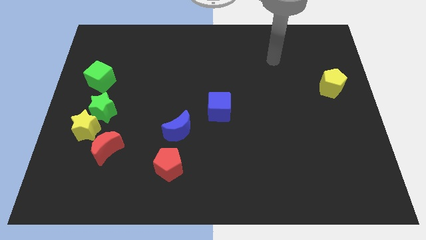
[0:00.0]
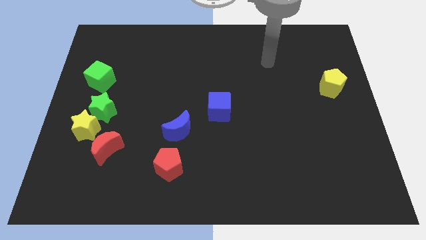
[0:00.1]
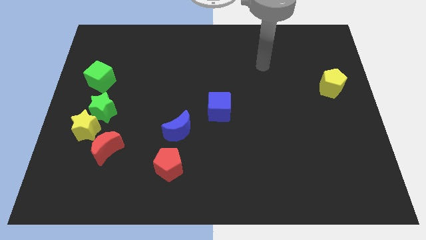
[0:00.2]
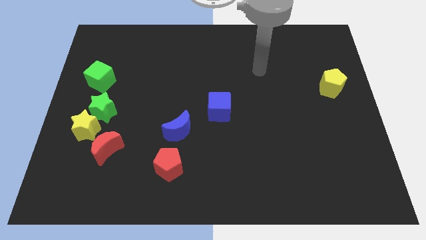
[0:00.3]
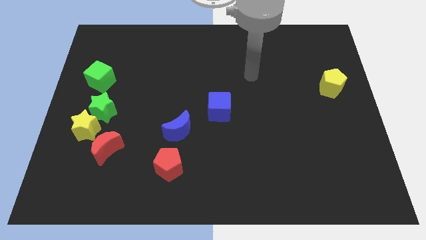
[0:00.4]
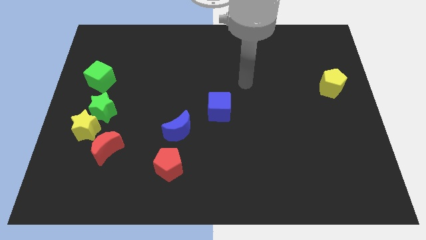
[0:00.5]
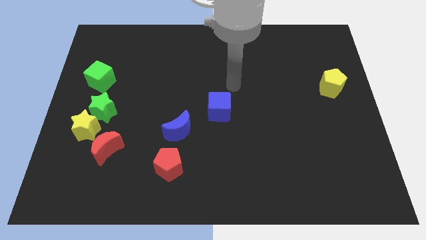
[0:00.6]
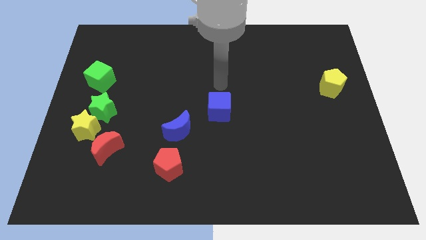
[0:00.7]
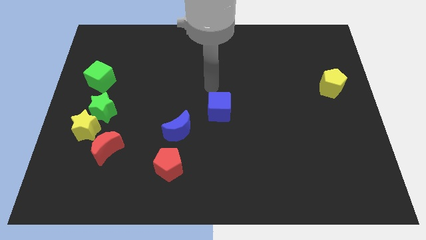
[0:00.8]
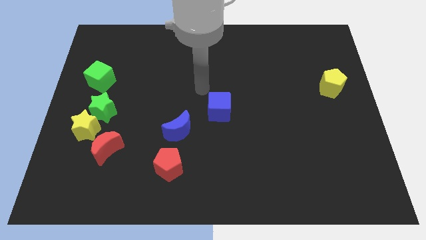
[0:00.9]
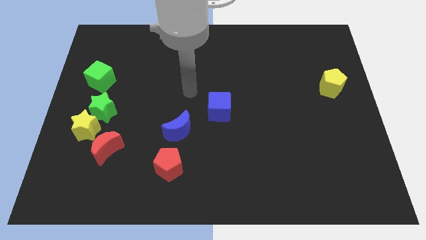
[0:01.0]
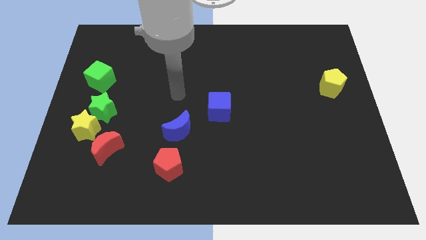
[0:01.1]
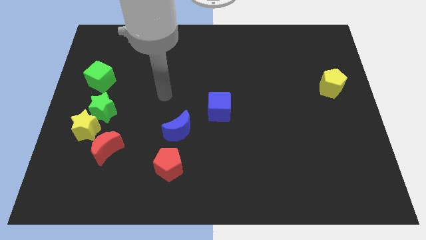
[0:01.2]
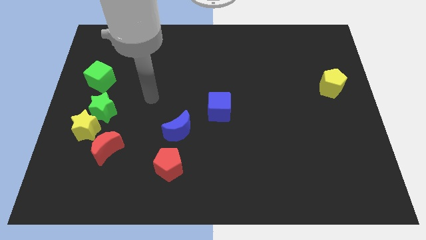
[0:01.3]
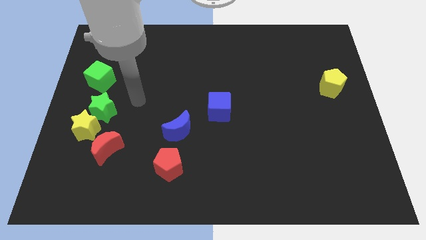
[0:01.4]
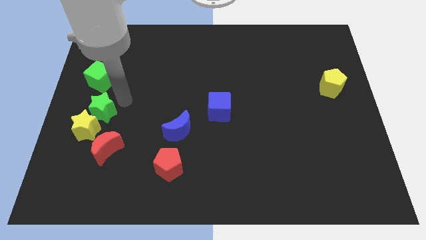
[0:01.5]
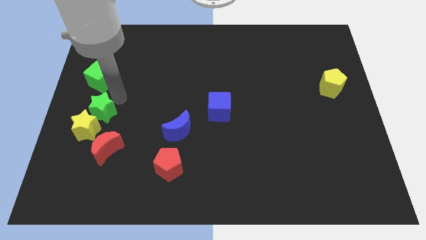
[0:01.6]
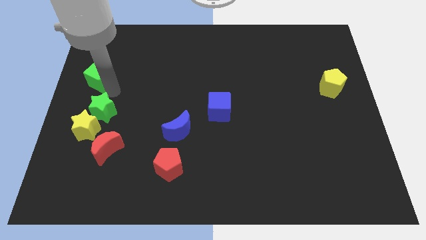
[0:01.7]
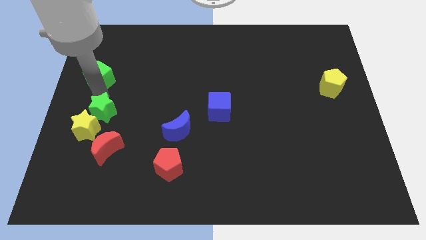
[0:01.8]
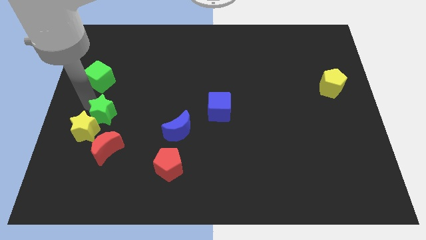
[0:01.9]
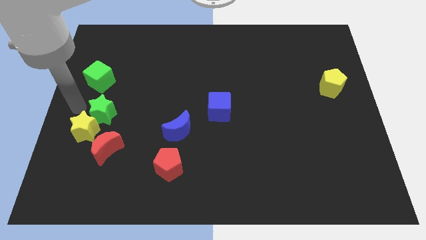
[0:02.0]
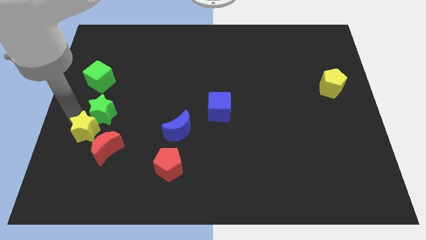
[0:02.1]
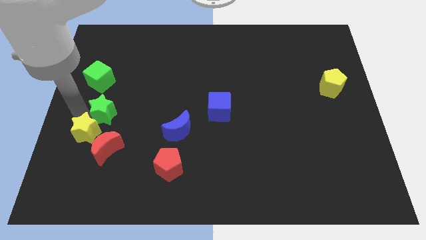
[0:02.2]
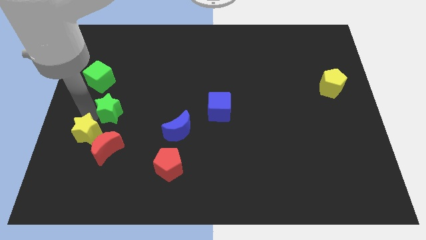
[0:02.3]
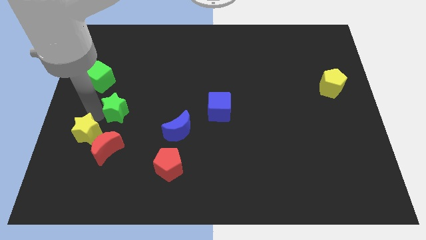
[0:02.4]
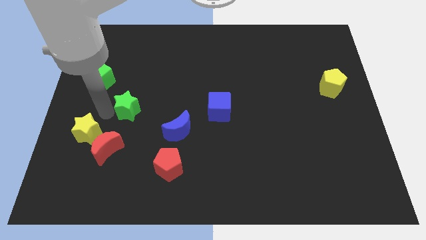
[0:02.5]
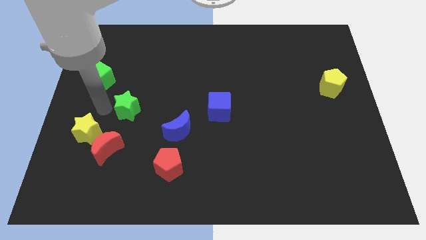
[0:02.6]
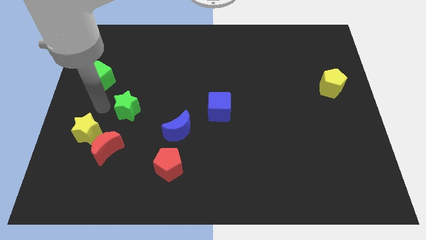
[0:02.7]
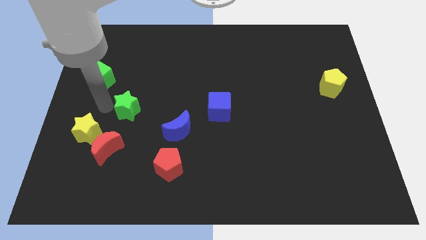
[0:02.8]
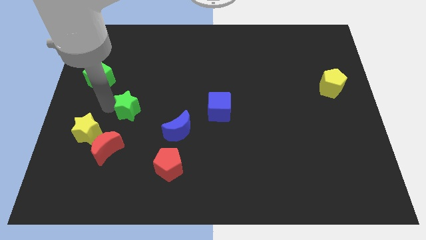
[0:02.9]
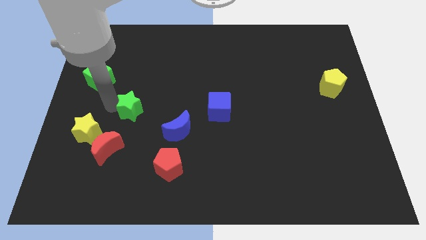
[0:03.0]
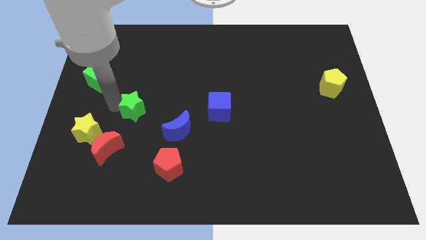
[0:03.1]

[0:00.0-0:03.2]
move the green star a little to the right

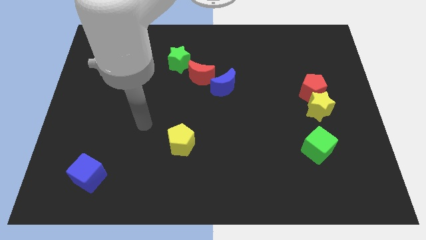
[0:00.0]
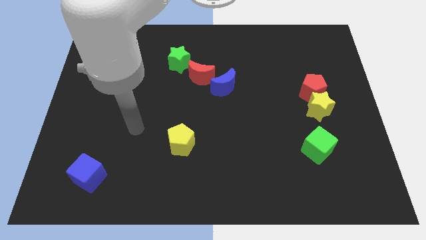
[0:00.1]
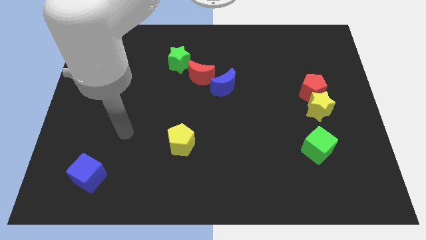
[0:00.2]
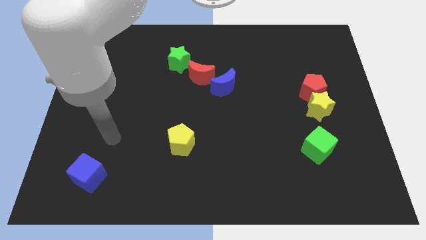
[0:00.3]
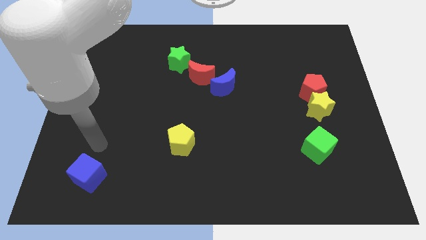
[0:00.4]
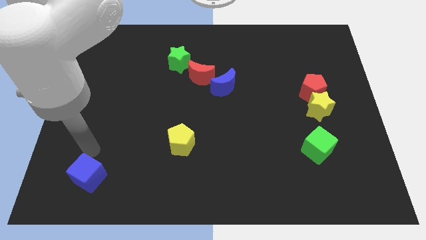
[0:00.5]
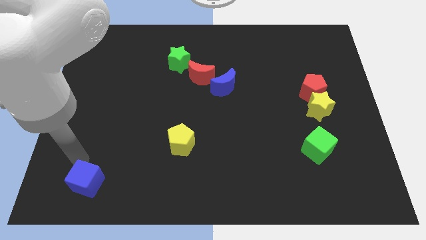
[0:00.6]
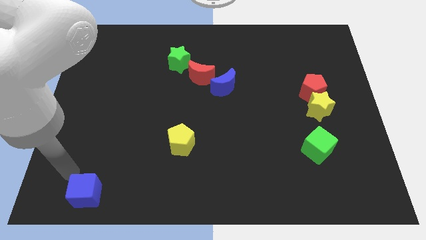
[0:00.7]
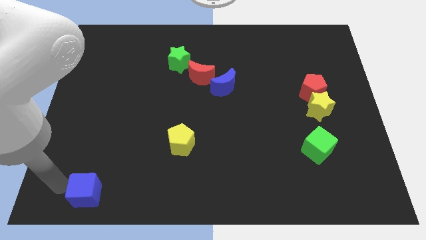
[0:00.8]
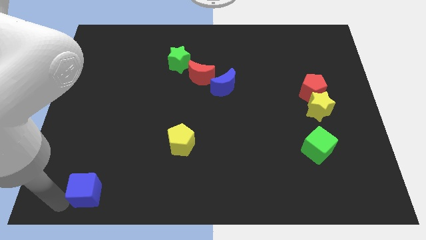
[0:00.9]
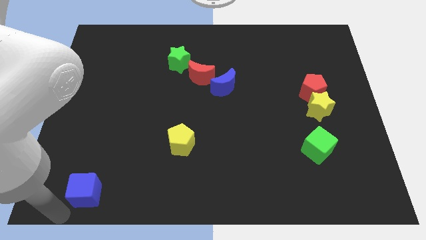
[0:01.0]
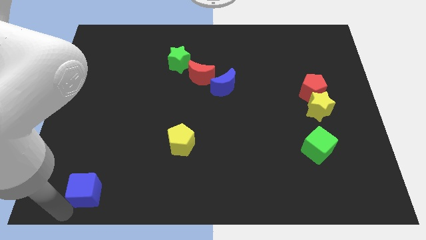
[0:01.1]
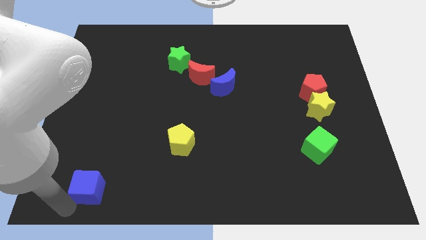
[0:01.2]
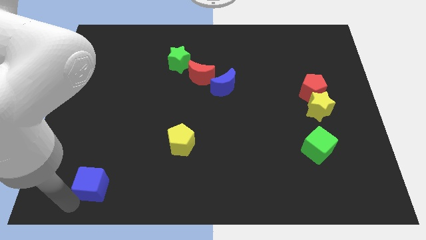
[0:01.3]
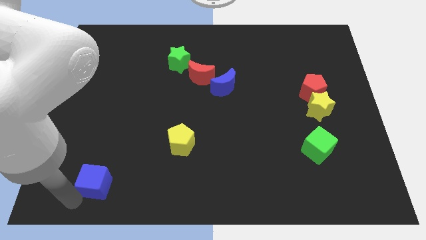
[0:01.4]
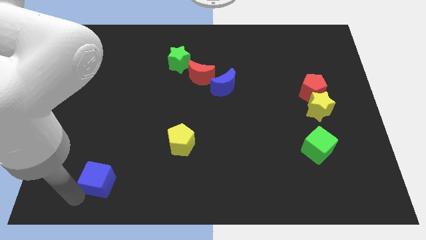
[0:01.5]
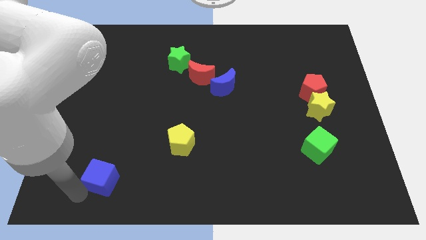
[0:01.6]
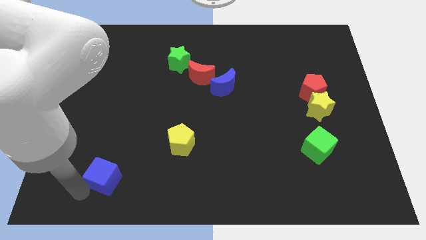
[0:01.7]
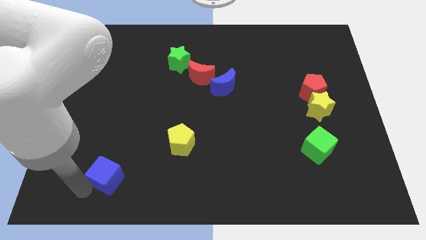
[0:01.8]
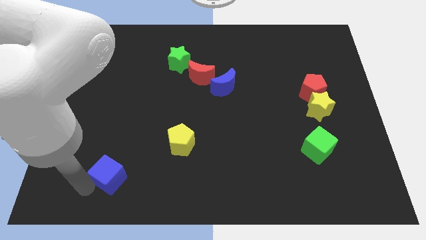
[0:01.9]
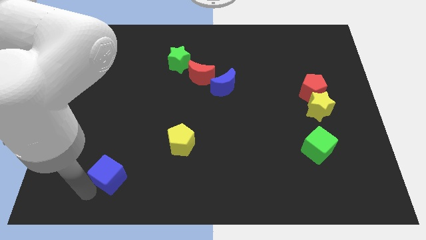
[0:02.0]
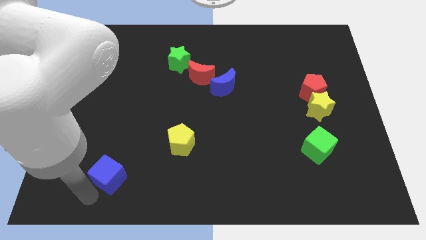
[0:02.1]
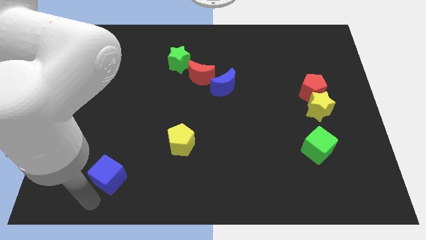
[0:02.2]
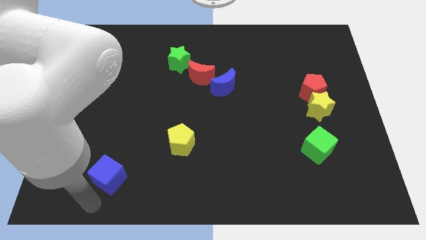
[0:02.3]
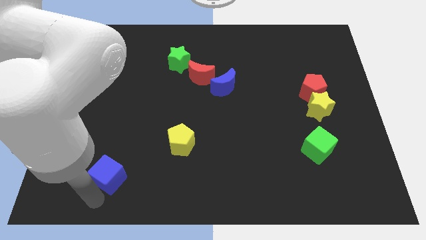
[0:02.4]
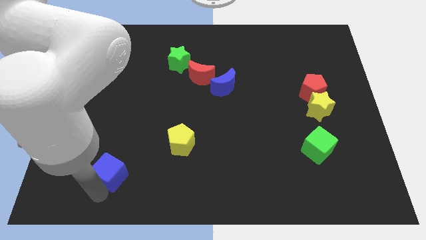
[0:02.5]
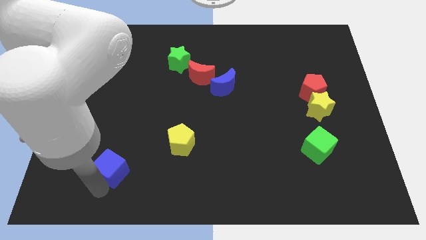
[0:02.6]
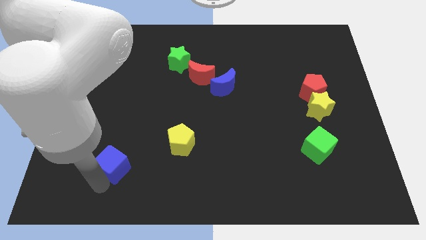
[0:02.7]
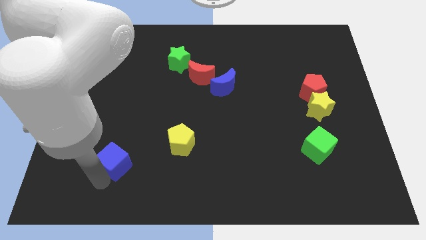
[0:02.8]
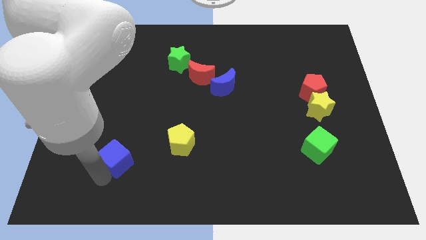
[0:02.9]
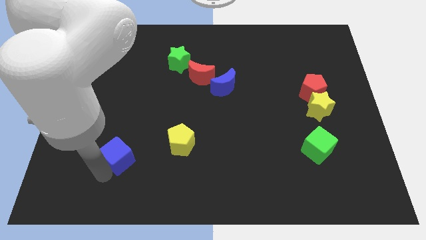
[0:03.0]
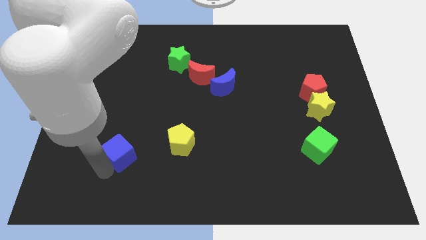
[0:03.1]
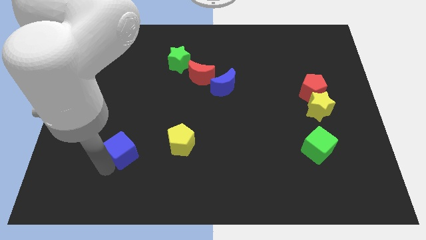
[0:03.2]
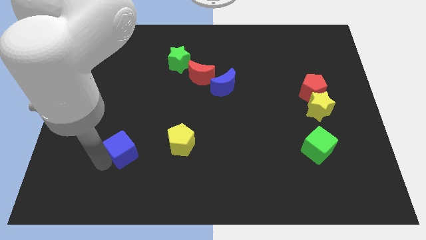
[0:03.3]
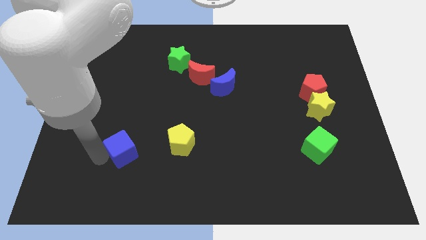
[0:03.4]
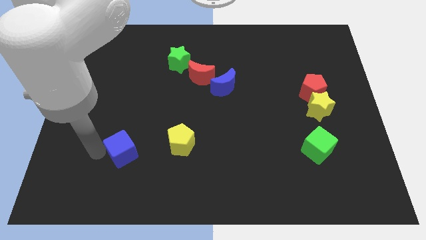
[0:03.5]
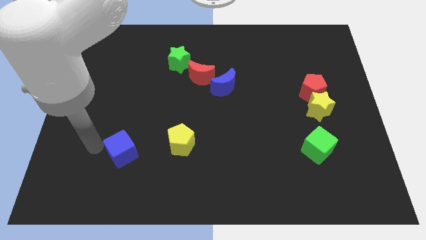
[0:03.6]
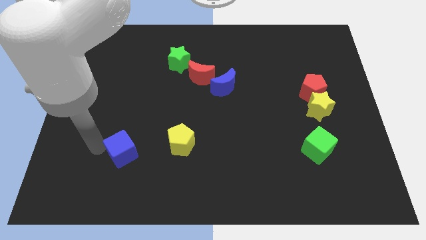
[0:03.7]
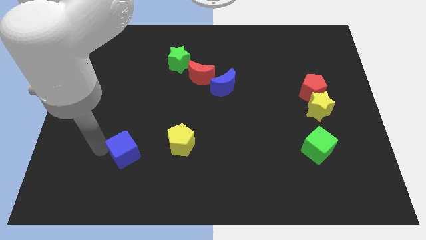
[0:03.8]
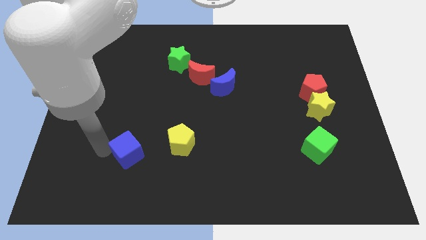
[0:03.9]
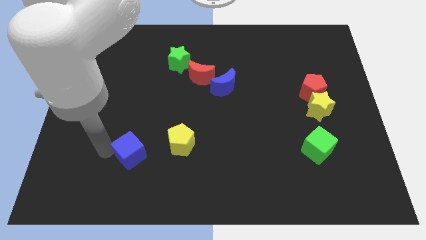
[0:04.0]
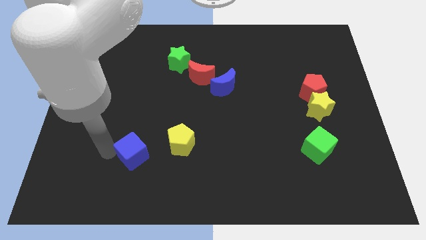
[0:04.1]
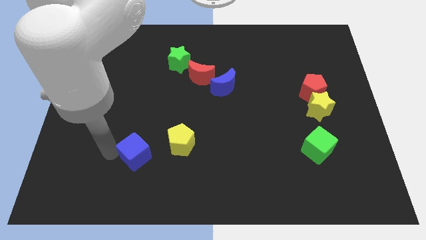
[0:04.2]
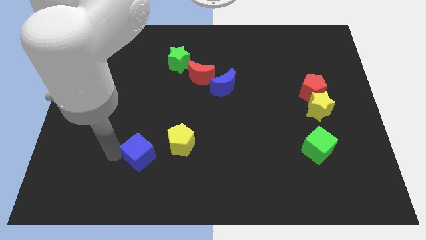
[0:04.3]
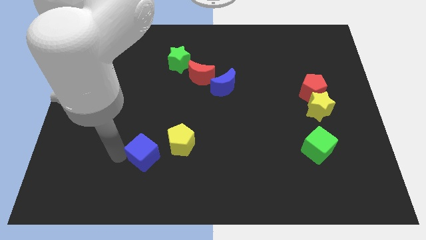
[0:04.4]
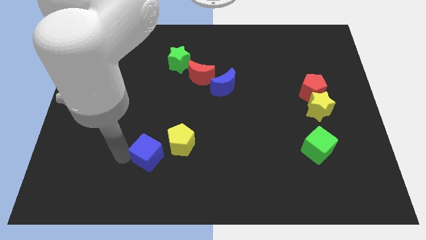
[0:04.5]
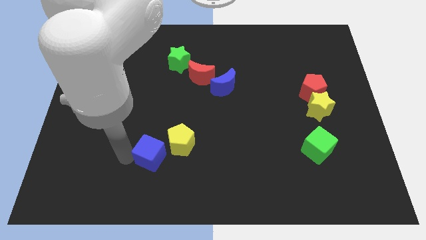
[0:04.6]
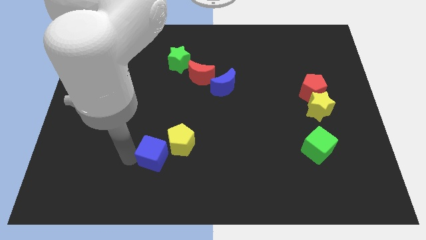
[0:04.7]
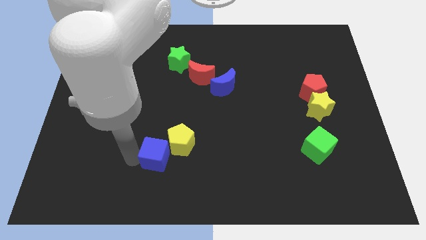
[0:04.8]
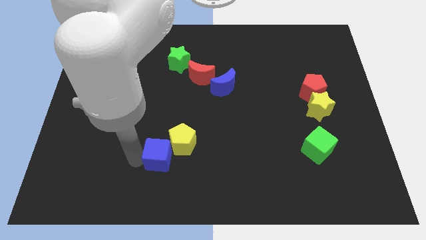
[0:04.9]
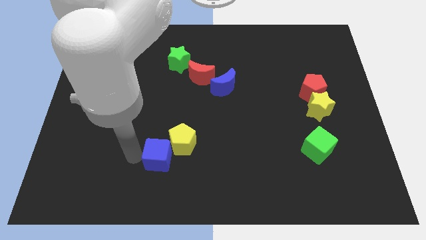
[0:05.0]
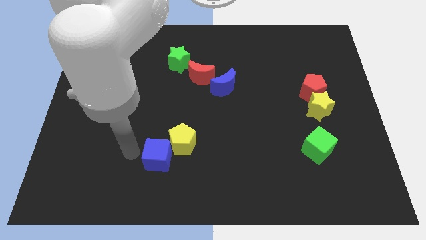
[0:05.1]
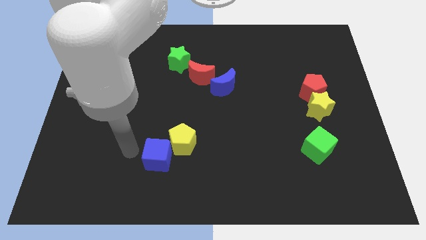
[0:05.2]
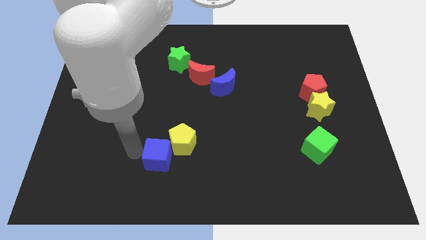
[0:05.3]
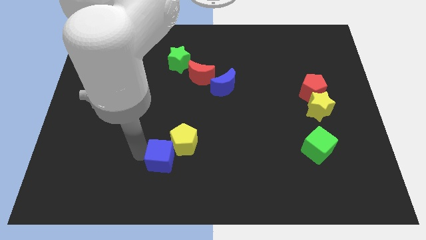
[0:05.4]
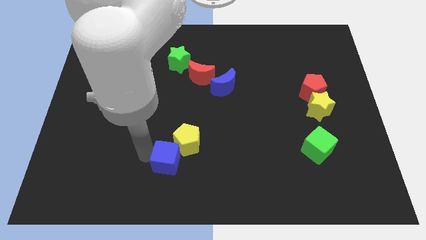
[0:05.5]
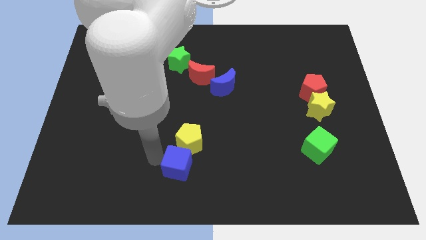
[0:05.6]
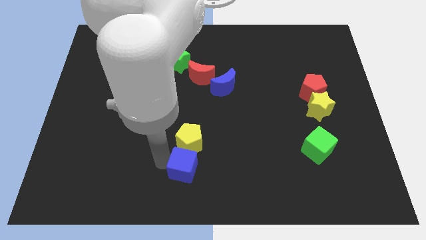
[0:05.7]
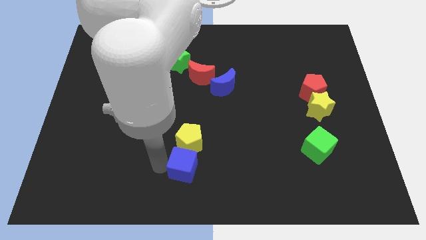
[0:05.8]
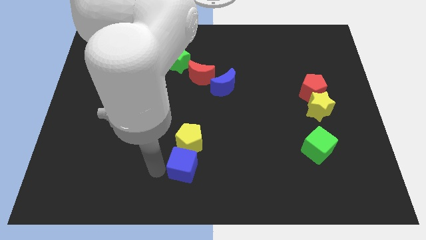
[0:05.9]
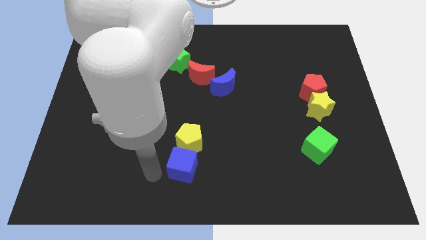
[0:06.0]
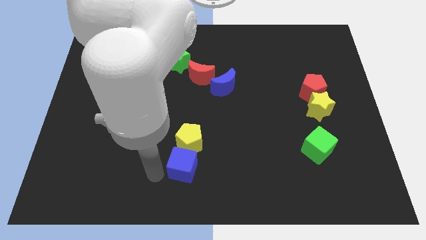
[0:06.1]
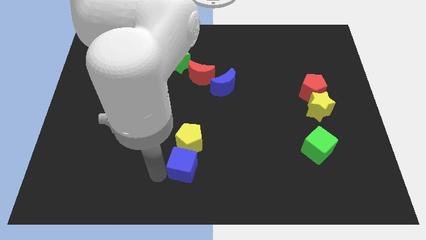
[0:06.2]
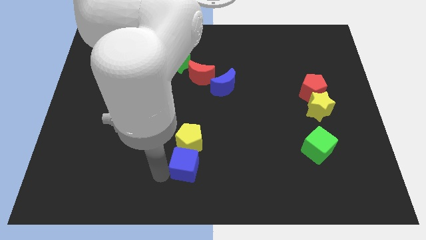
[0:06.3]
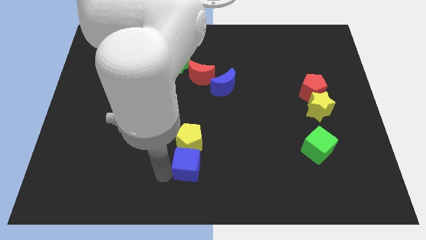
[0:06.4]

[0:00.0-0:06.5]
push the blue cube to the right
